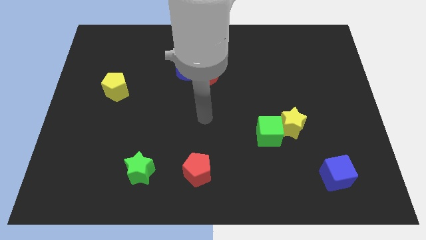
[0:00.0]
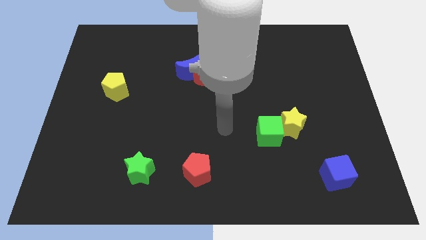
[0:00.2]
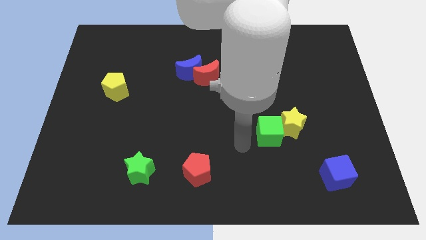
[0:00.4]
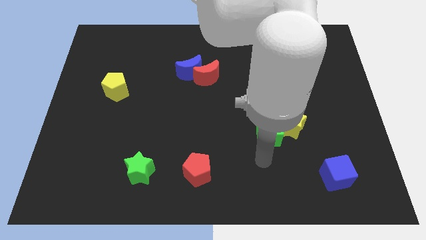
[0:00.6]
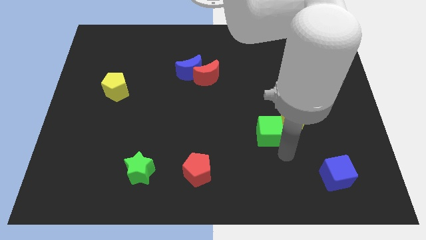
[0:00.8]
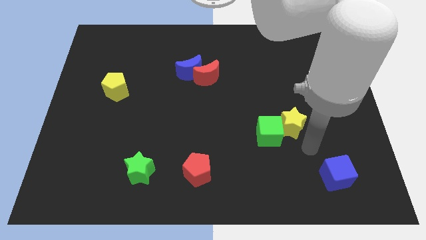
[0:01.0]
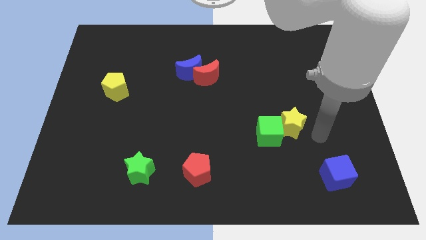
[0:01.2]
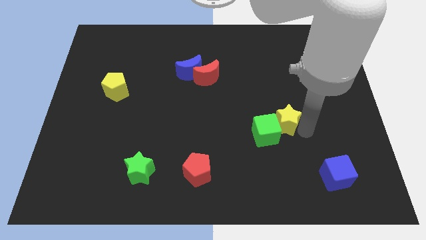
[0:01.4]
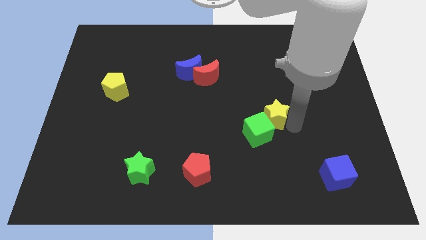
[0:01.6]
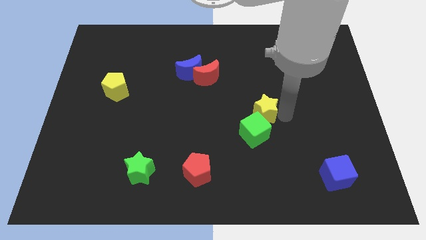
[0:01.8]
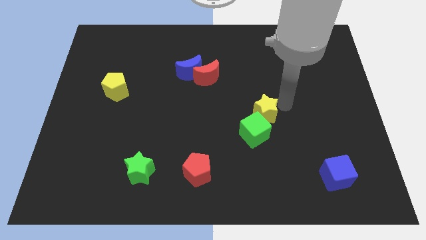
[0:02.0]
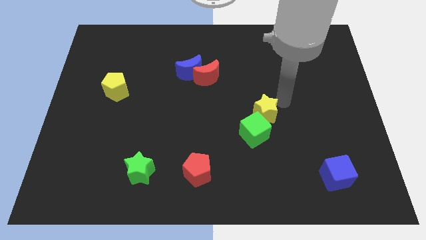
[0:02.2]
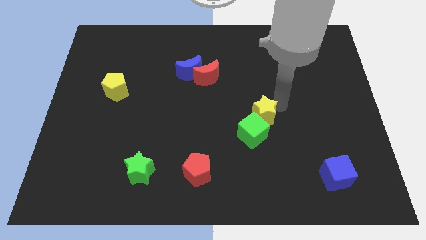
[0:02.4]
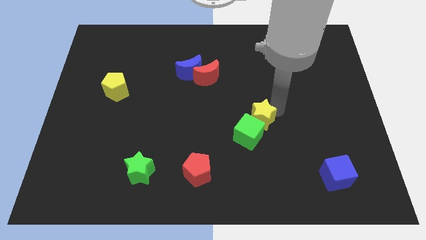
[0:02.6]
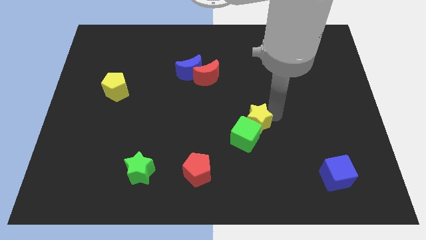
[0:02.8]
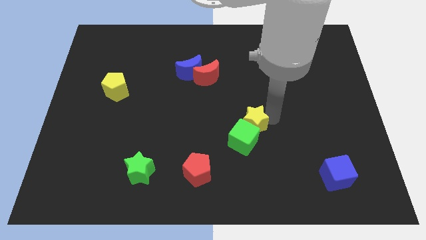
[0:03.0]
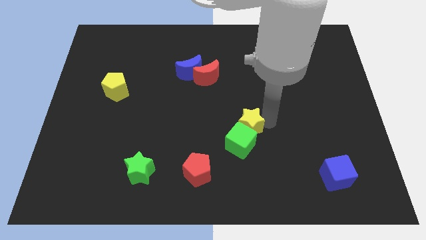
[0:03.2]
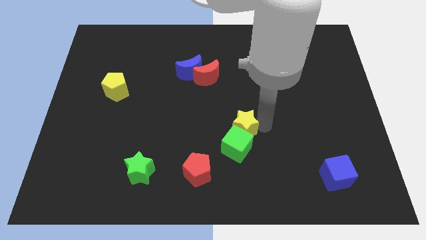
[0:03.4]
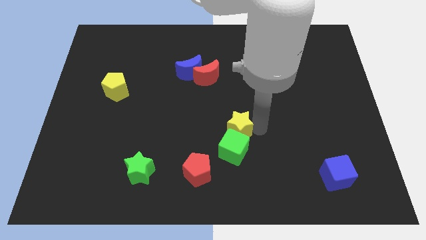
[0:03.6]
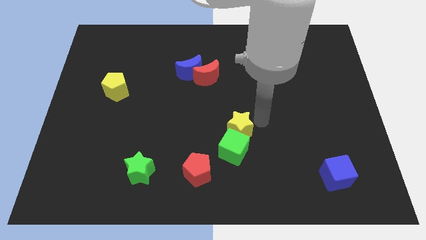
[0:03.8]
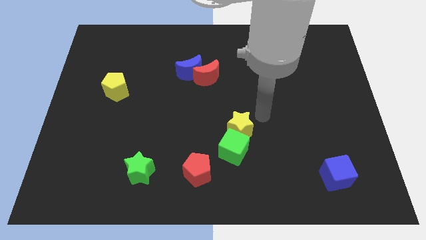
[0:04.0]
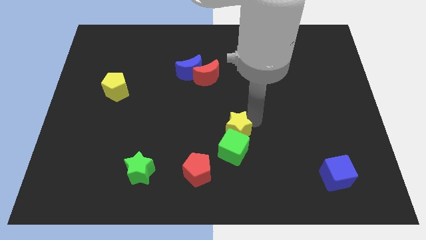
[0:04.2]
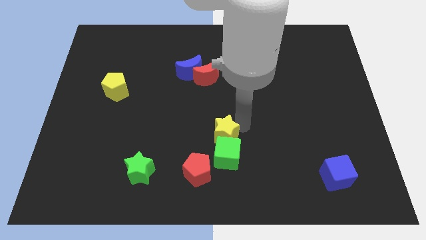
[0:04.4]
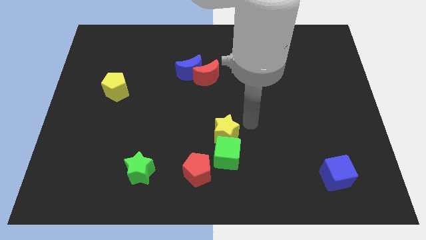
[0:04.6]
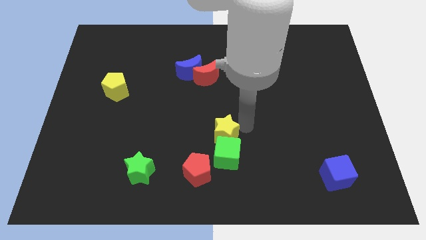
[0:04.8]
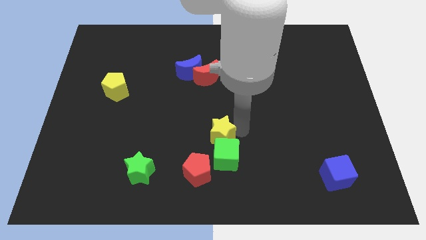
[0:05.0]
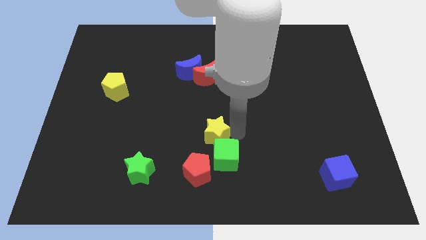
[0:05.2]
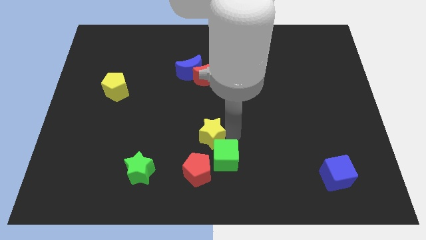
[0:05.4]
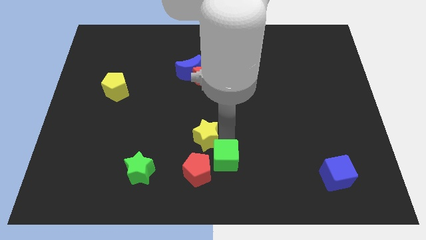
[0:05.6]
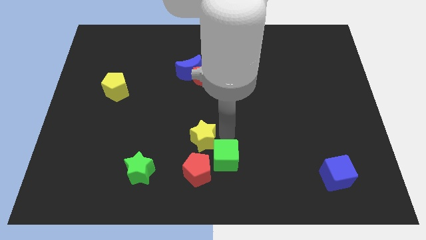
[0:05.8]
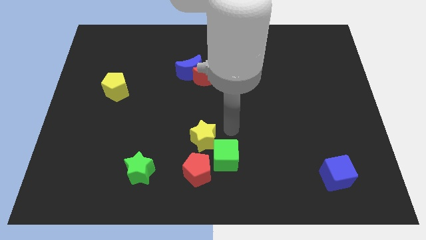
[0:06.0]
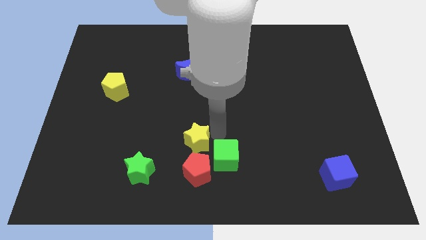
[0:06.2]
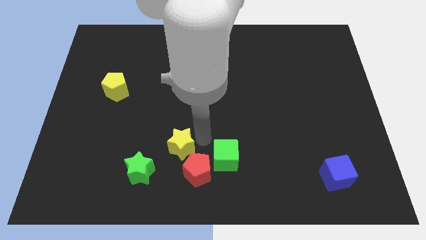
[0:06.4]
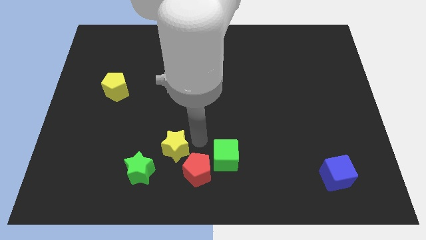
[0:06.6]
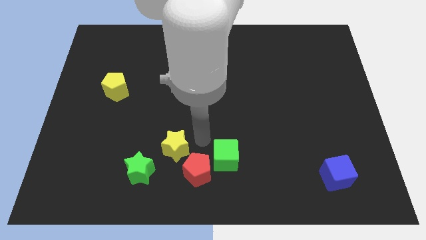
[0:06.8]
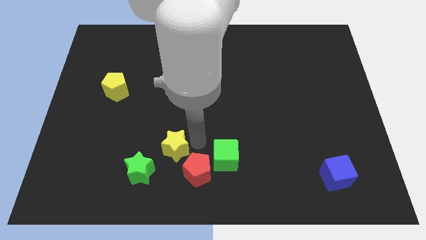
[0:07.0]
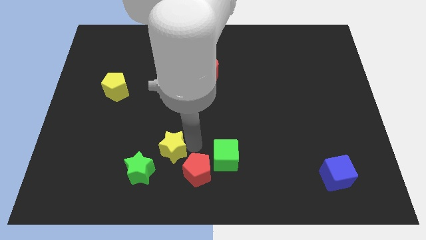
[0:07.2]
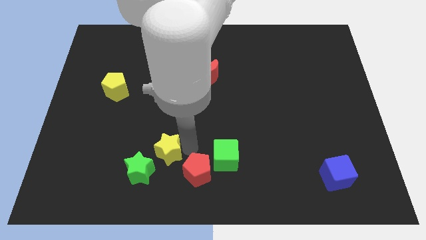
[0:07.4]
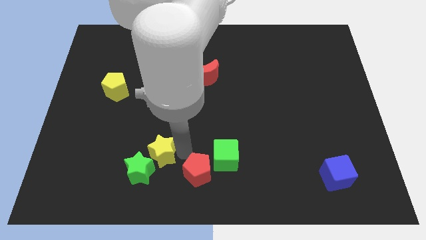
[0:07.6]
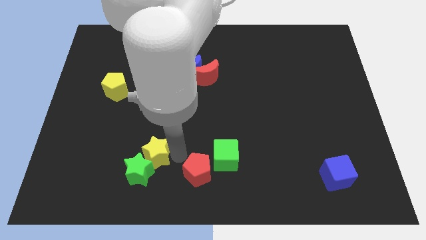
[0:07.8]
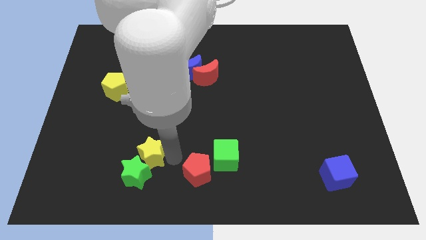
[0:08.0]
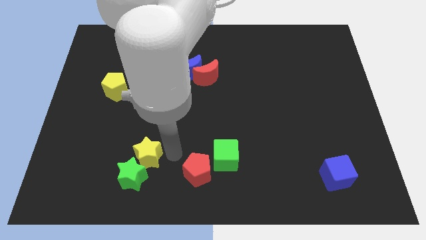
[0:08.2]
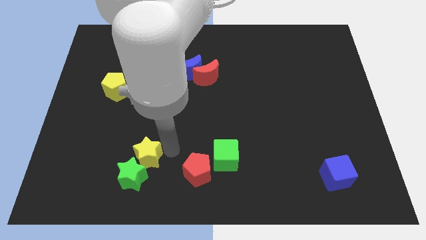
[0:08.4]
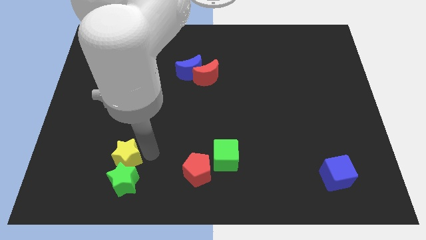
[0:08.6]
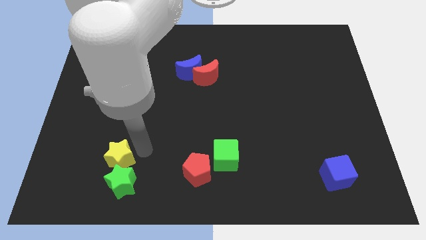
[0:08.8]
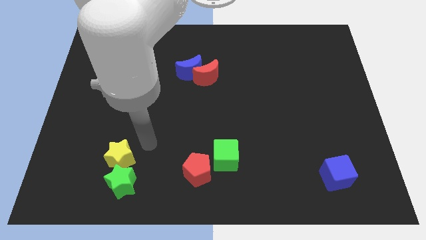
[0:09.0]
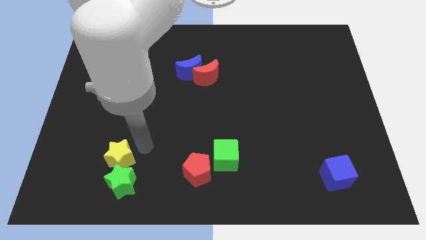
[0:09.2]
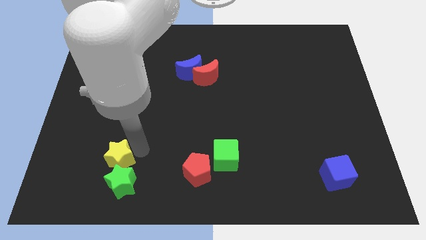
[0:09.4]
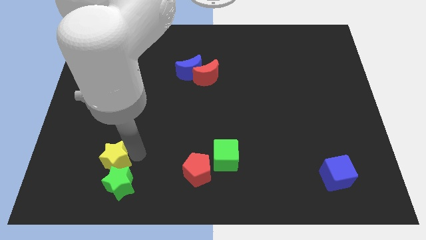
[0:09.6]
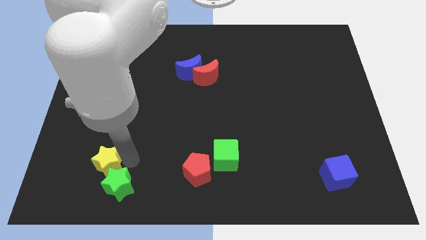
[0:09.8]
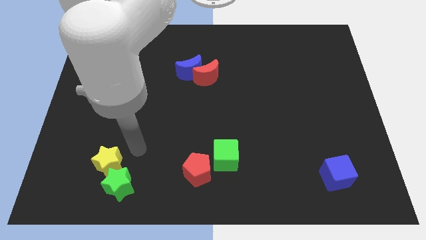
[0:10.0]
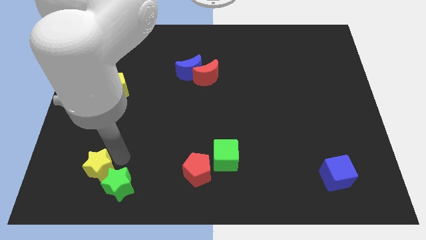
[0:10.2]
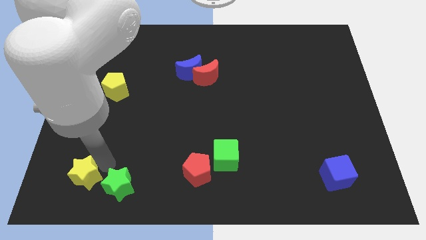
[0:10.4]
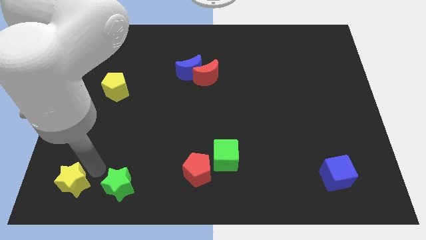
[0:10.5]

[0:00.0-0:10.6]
put the yellow star to the bottom left

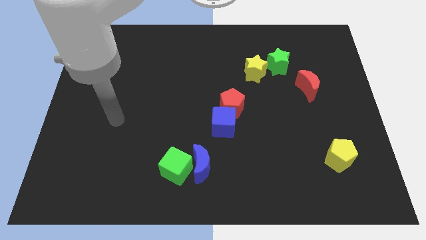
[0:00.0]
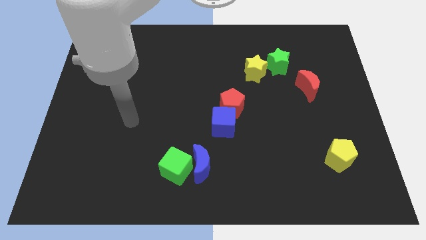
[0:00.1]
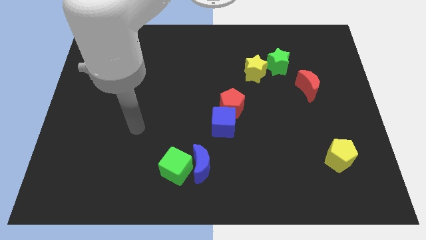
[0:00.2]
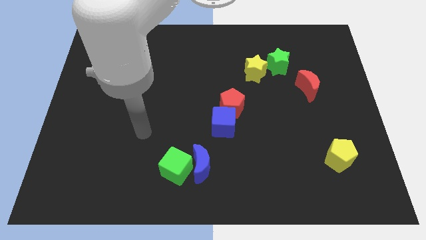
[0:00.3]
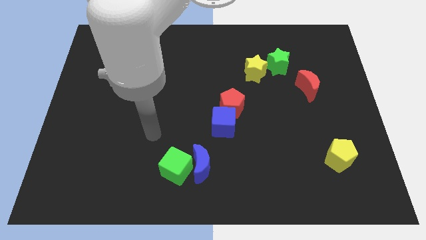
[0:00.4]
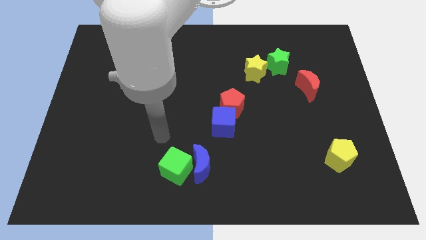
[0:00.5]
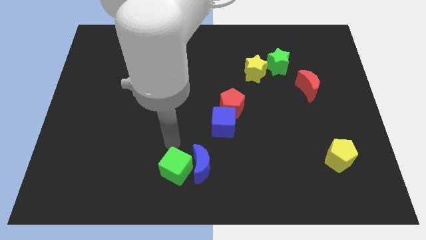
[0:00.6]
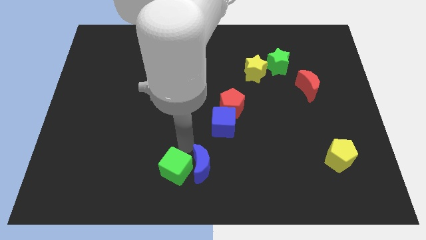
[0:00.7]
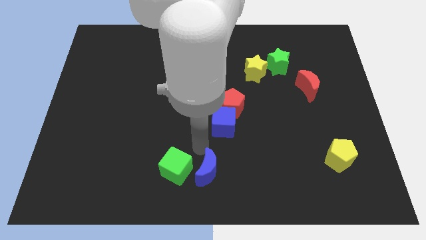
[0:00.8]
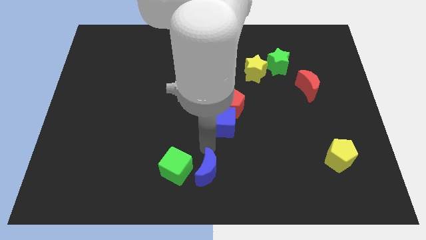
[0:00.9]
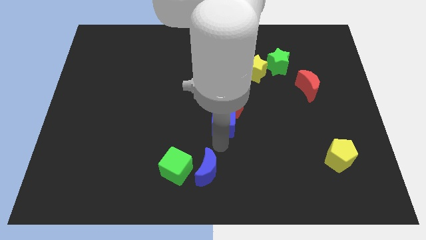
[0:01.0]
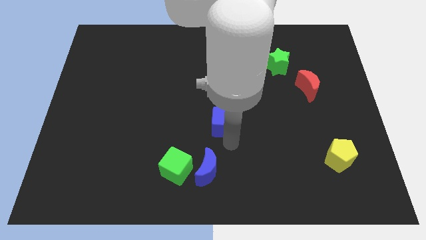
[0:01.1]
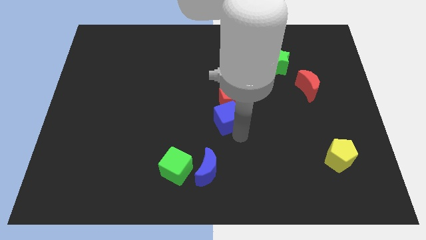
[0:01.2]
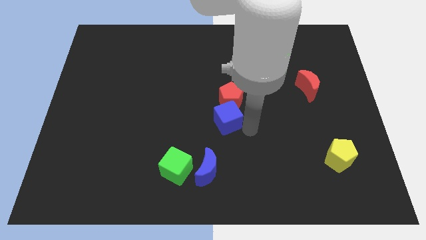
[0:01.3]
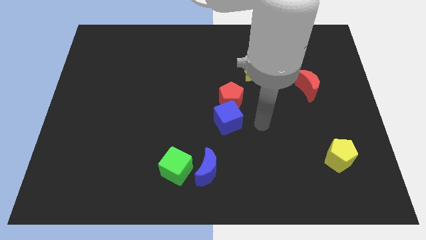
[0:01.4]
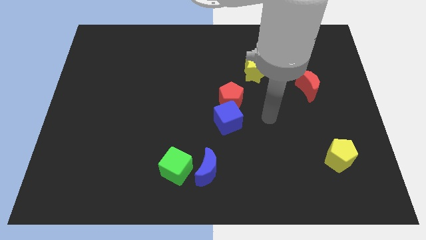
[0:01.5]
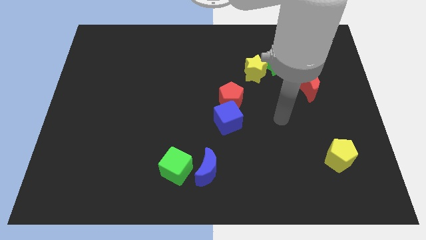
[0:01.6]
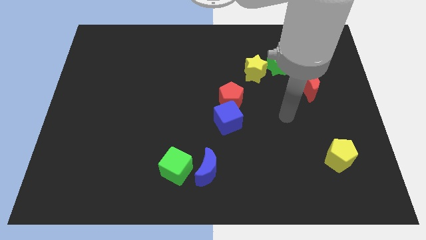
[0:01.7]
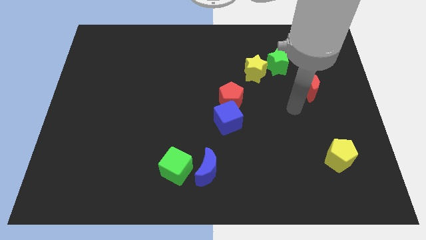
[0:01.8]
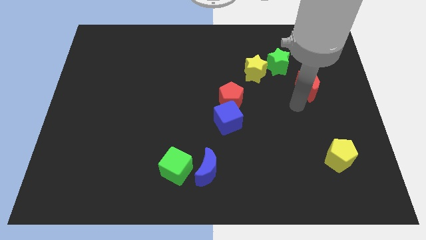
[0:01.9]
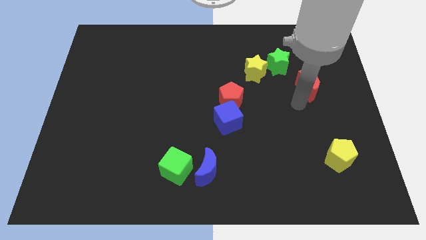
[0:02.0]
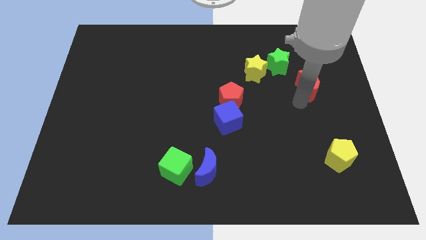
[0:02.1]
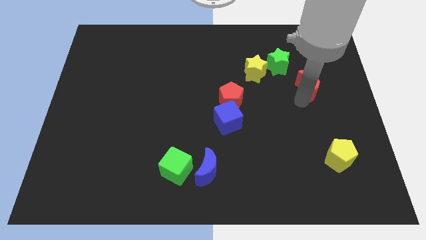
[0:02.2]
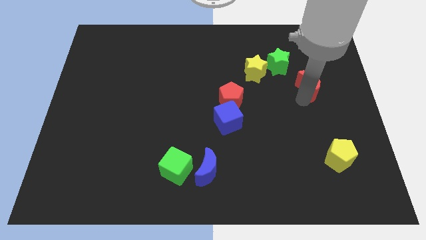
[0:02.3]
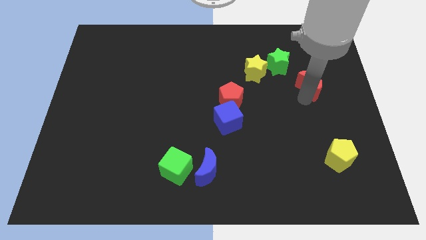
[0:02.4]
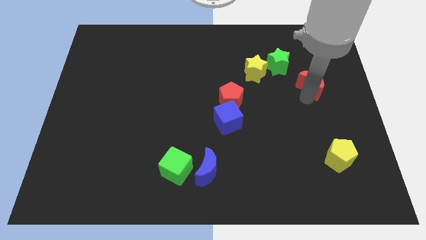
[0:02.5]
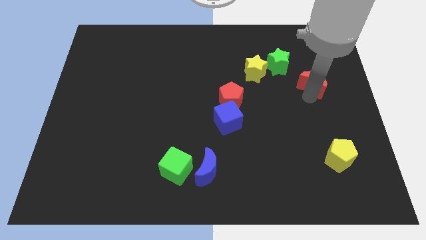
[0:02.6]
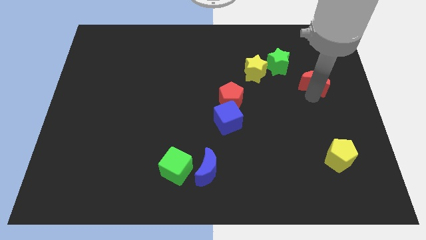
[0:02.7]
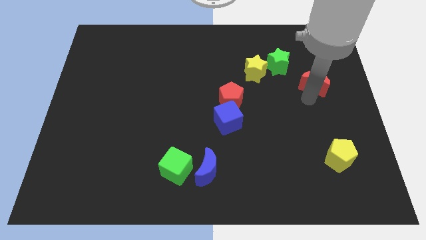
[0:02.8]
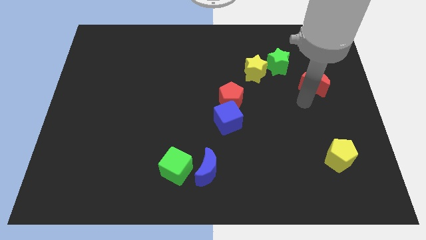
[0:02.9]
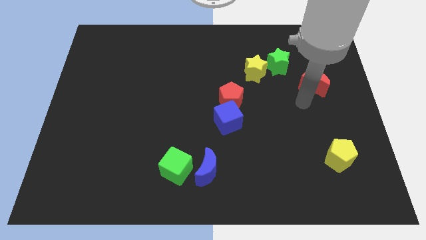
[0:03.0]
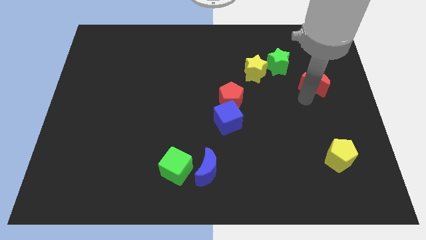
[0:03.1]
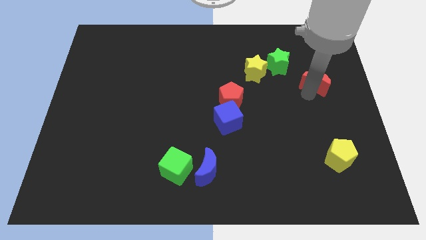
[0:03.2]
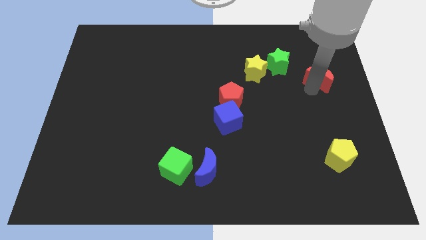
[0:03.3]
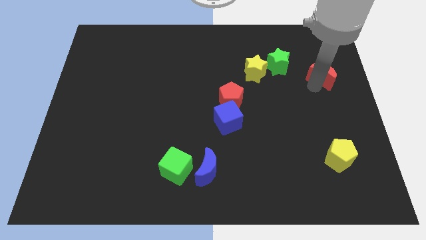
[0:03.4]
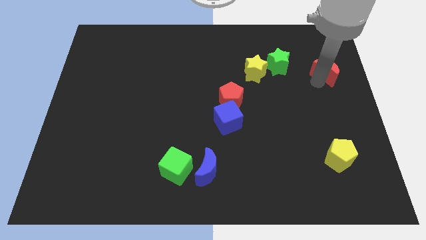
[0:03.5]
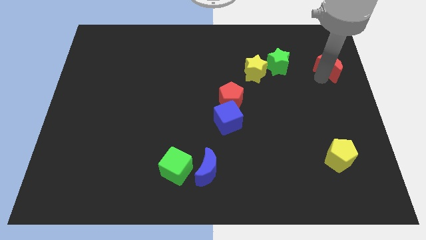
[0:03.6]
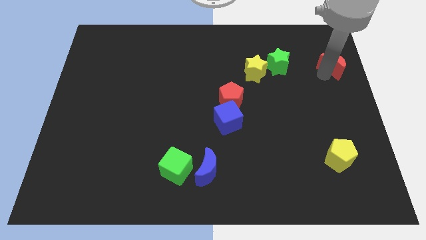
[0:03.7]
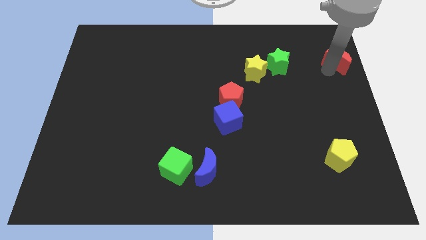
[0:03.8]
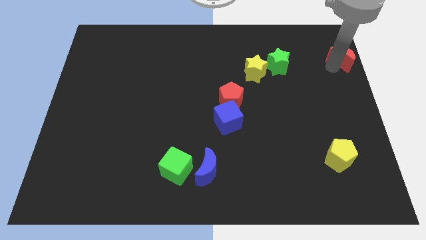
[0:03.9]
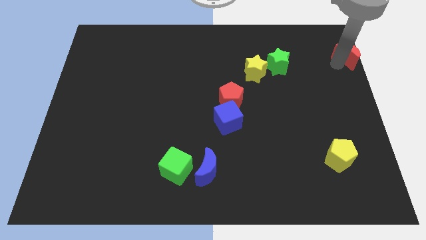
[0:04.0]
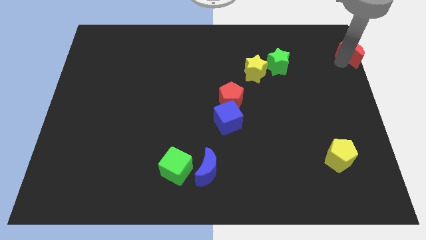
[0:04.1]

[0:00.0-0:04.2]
push the red moon to the top right corner
